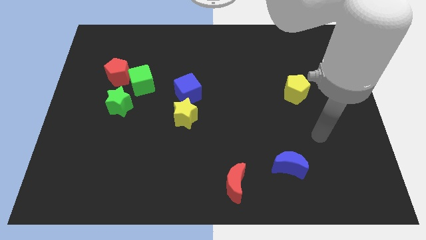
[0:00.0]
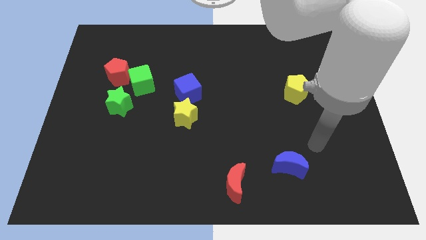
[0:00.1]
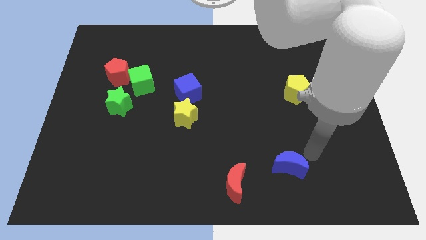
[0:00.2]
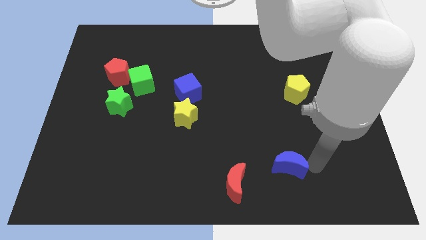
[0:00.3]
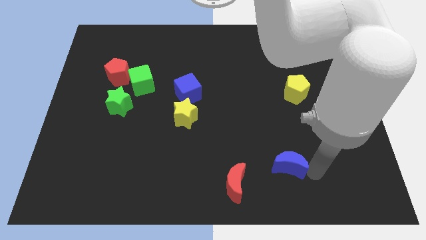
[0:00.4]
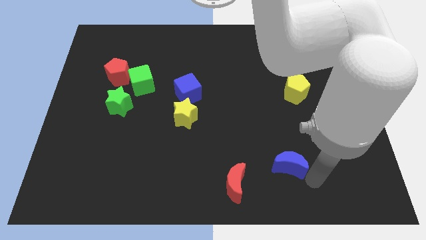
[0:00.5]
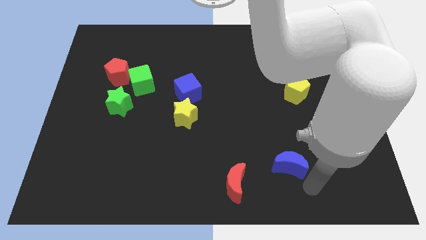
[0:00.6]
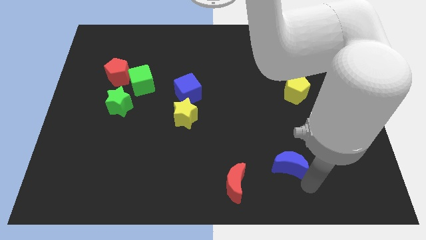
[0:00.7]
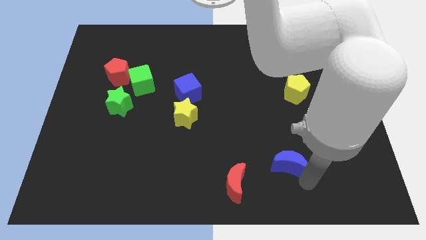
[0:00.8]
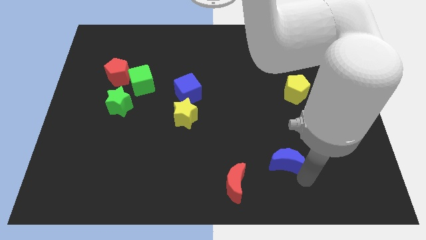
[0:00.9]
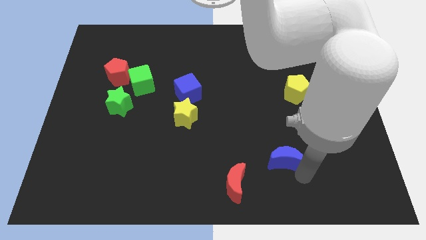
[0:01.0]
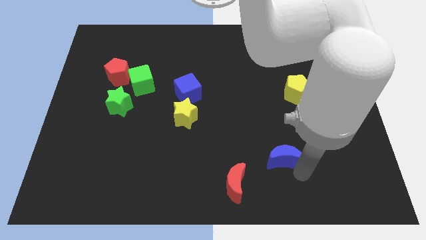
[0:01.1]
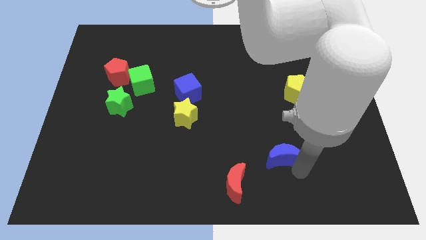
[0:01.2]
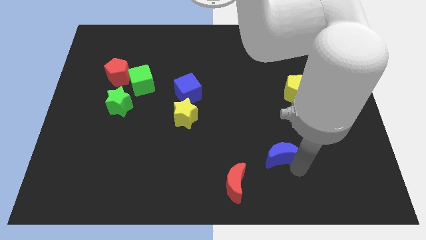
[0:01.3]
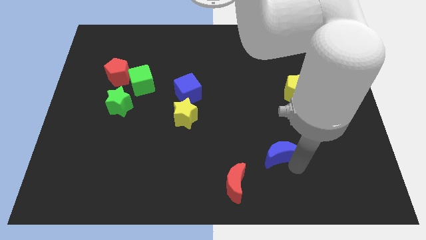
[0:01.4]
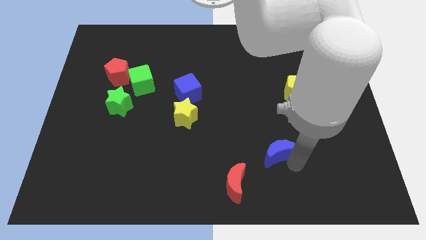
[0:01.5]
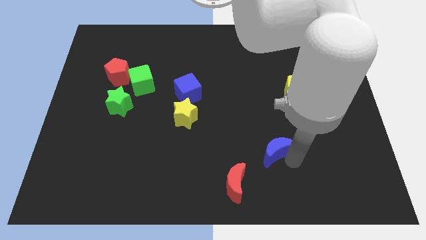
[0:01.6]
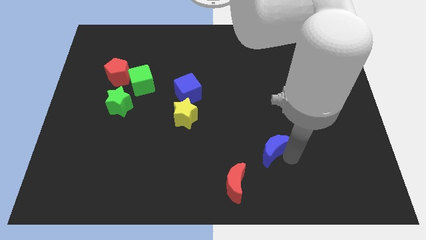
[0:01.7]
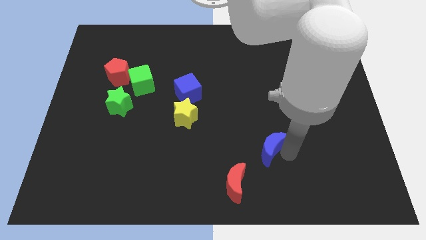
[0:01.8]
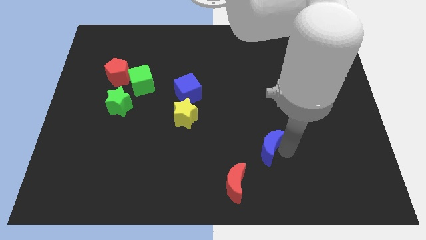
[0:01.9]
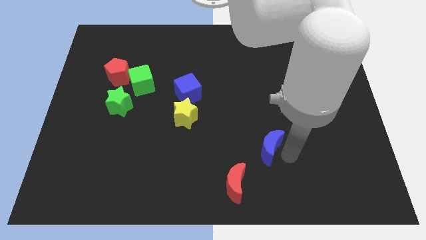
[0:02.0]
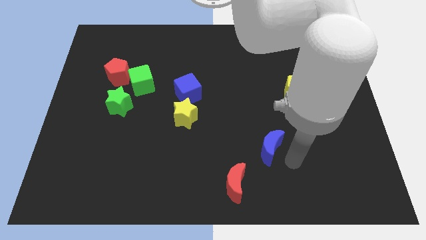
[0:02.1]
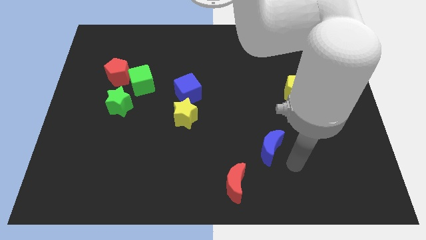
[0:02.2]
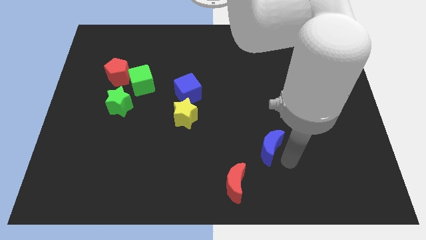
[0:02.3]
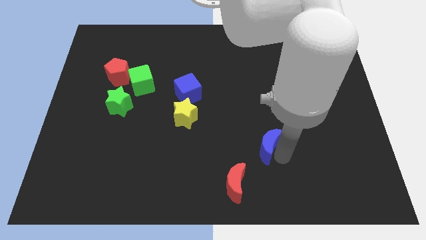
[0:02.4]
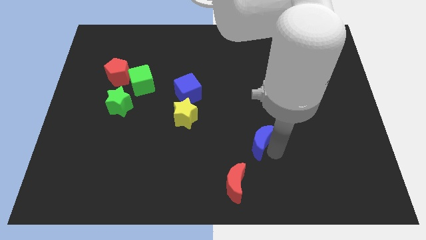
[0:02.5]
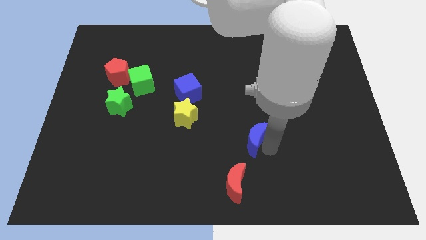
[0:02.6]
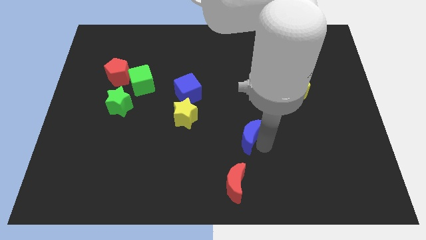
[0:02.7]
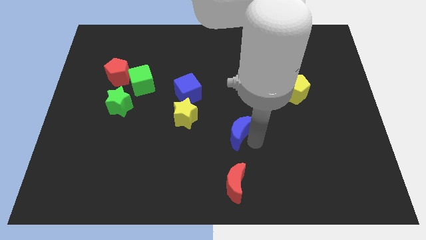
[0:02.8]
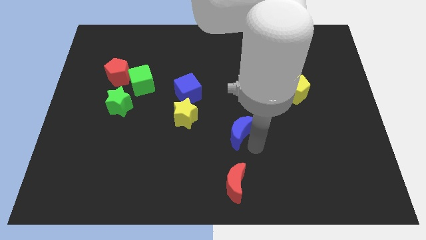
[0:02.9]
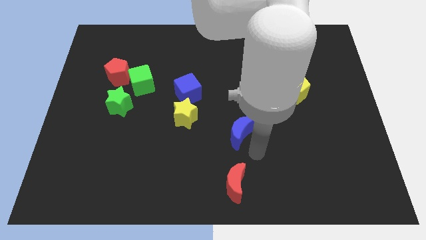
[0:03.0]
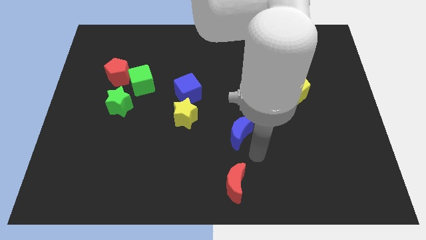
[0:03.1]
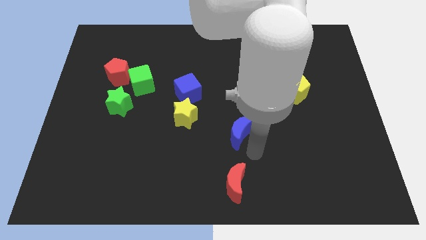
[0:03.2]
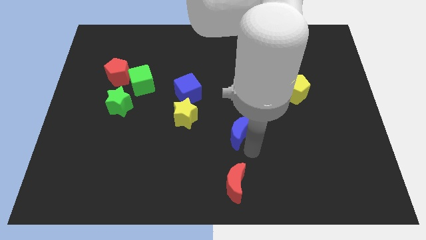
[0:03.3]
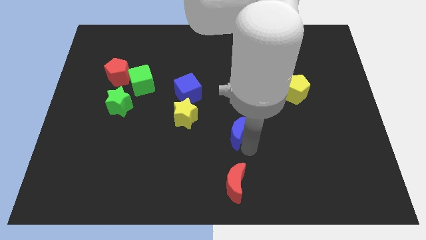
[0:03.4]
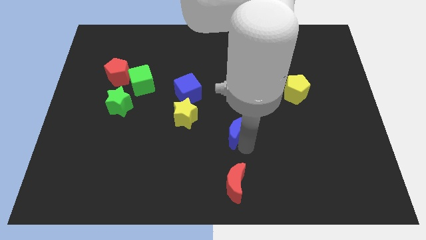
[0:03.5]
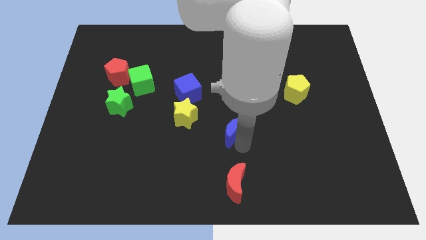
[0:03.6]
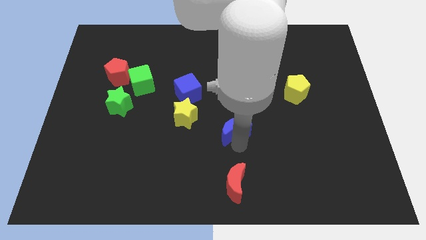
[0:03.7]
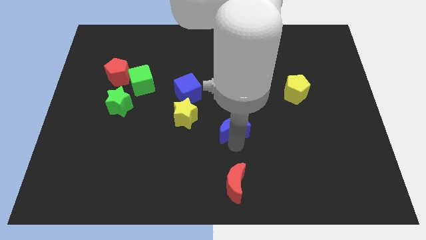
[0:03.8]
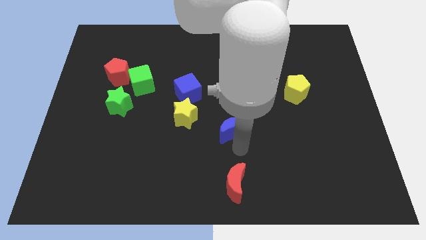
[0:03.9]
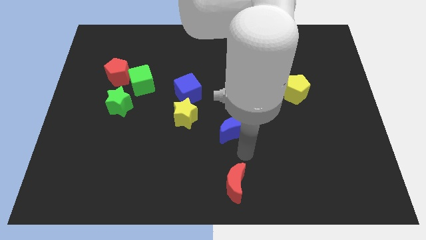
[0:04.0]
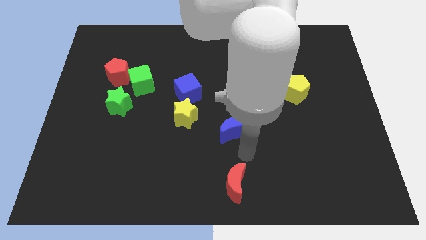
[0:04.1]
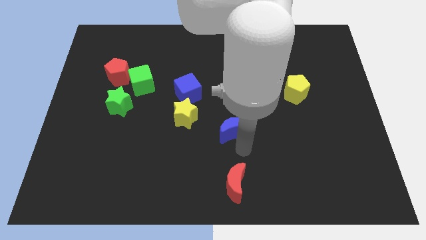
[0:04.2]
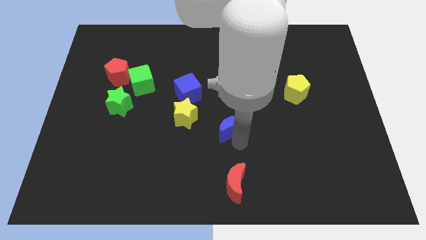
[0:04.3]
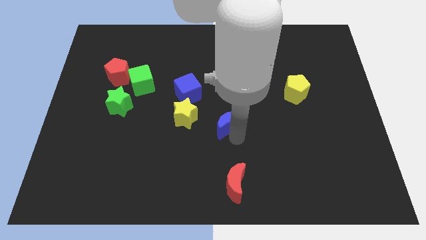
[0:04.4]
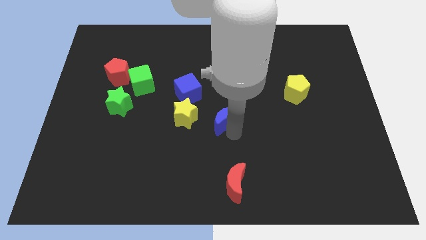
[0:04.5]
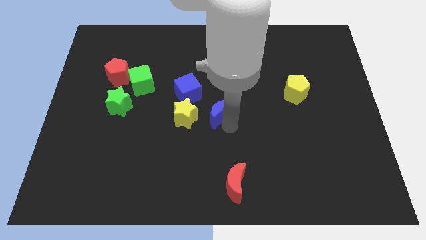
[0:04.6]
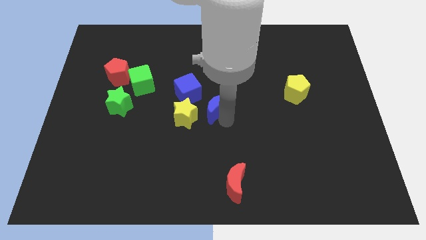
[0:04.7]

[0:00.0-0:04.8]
slide the blue moon diagonally up and to the right of the yellow star

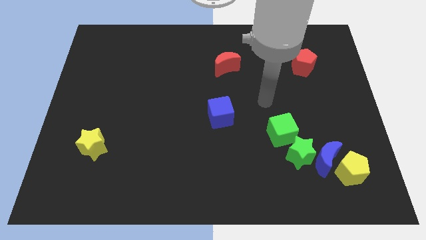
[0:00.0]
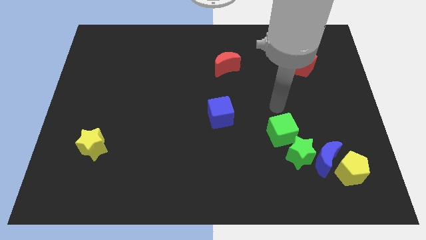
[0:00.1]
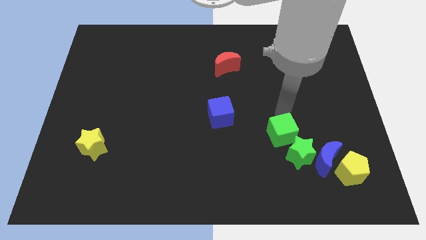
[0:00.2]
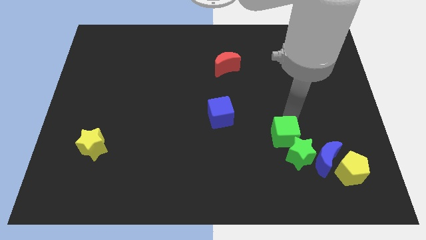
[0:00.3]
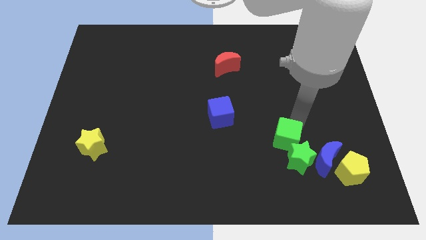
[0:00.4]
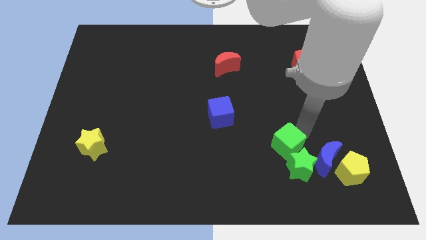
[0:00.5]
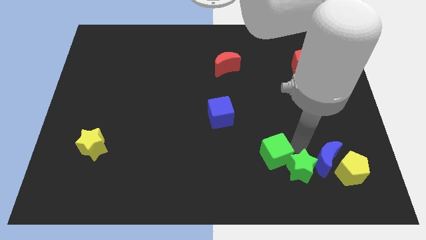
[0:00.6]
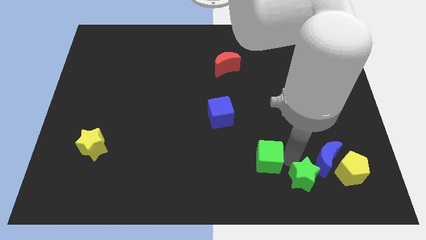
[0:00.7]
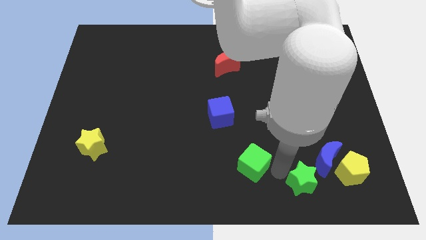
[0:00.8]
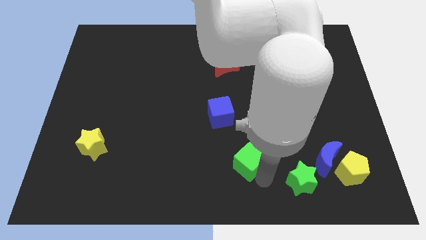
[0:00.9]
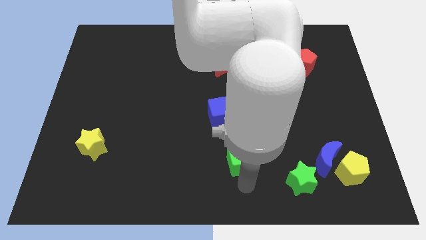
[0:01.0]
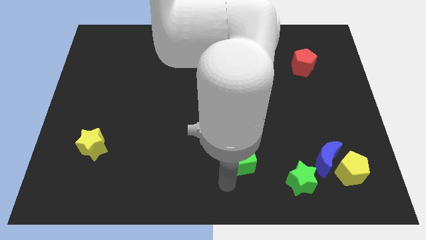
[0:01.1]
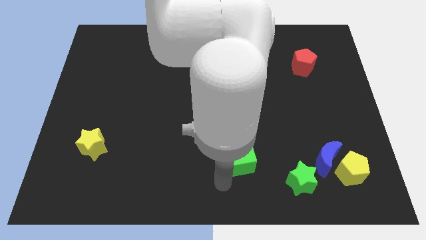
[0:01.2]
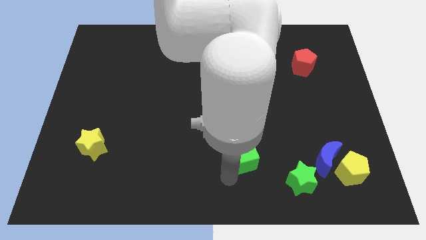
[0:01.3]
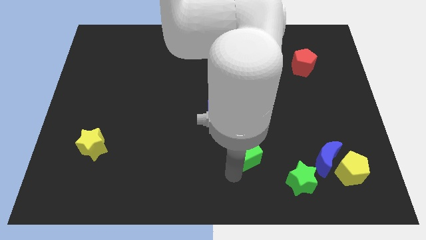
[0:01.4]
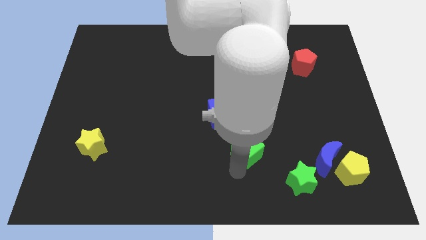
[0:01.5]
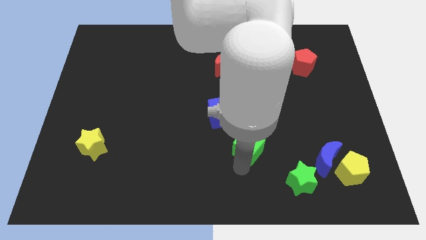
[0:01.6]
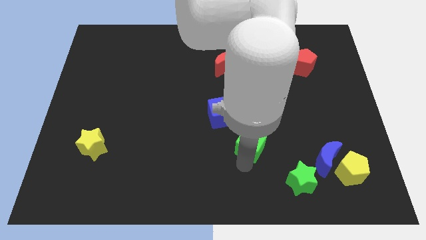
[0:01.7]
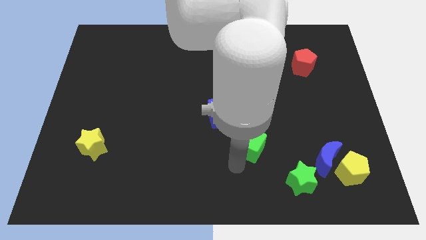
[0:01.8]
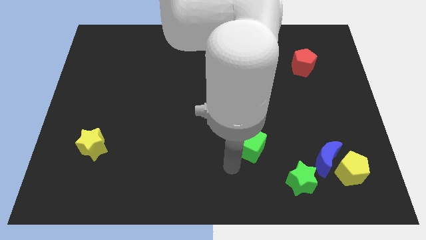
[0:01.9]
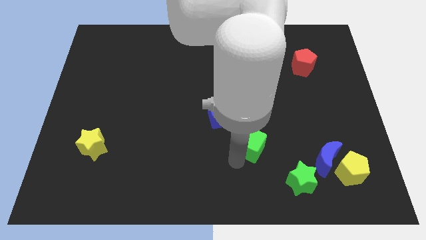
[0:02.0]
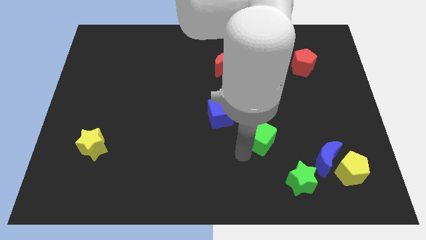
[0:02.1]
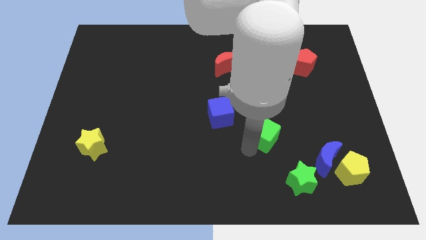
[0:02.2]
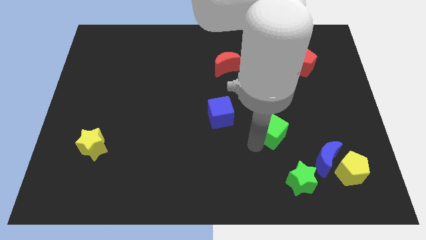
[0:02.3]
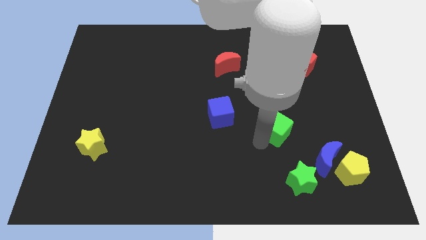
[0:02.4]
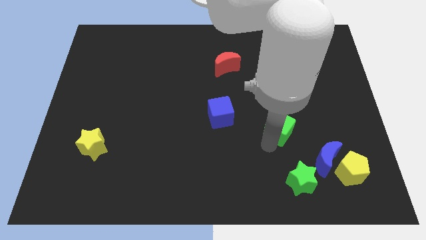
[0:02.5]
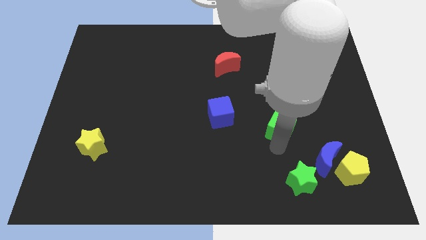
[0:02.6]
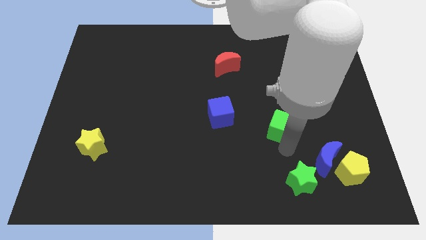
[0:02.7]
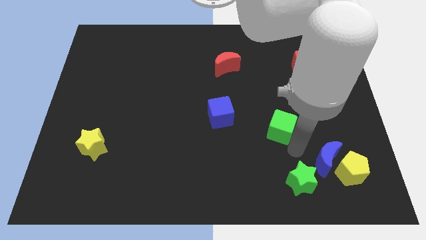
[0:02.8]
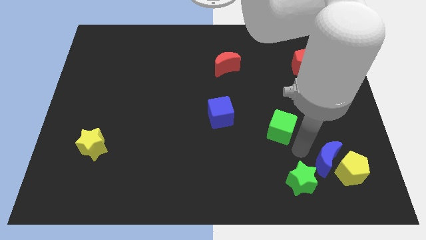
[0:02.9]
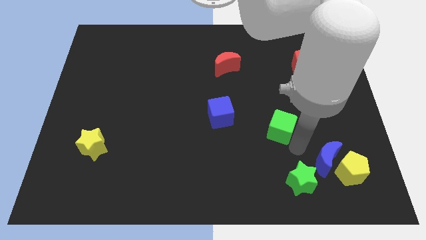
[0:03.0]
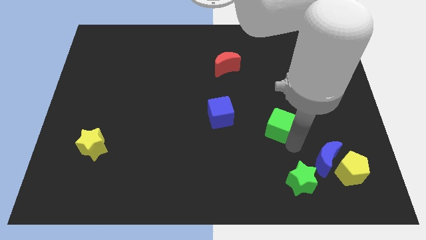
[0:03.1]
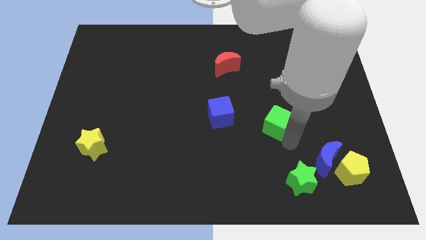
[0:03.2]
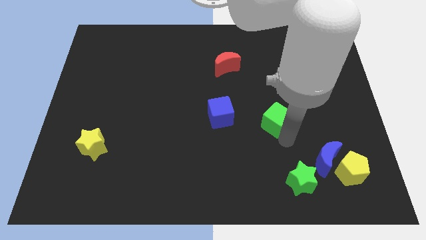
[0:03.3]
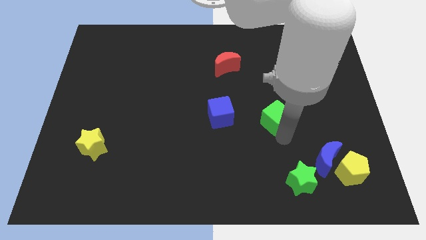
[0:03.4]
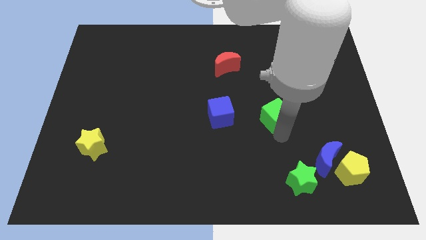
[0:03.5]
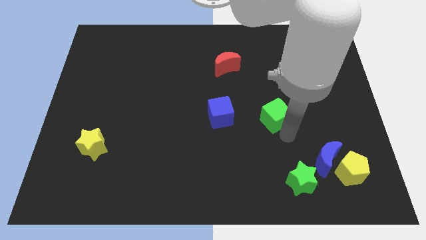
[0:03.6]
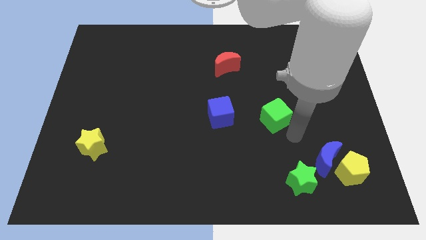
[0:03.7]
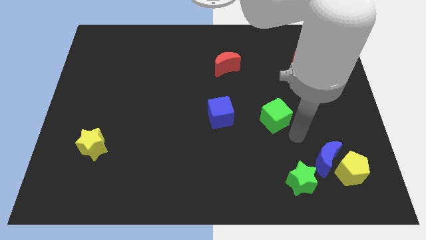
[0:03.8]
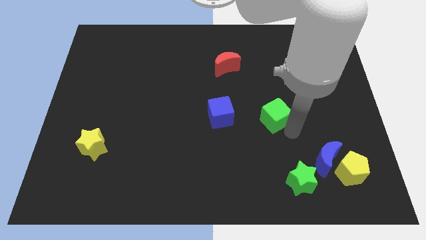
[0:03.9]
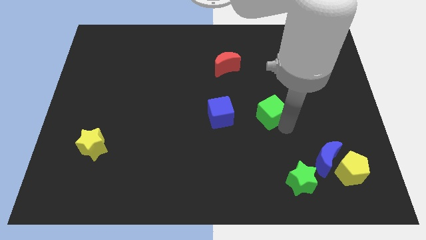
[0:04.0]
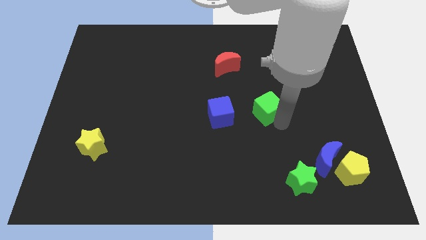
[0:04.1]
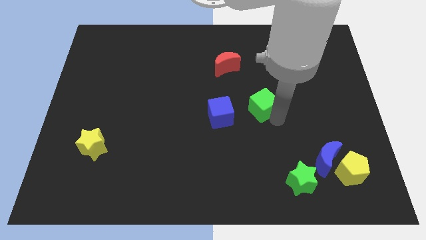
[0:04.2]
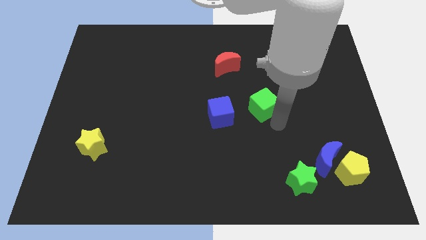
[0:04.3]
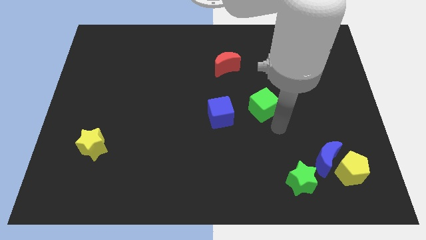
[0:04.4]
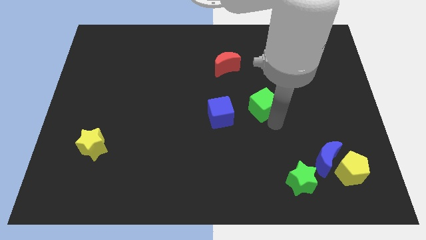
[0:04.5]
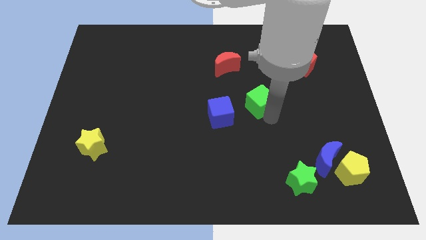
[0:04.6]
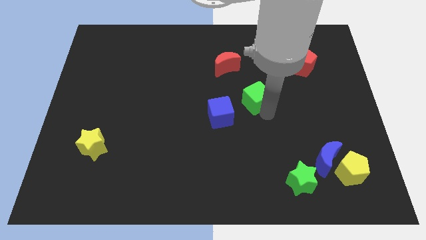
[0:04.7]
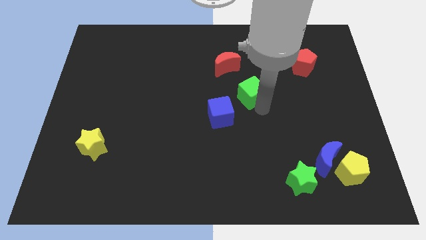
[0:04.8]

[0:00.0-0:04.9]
slide the green cube diagonally down and to the right of the red moon
